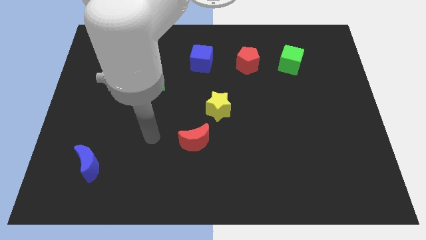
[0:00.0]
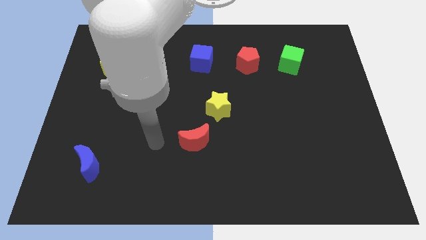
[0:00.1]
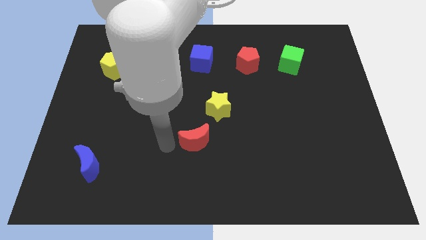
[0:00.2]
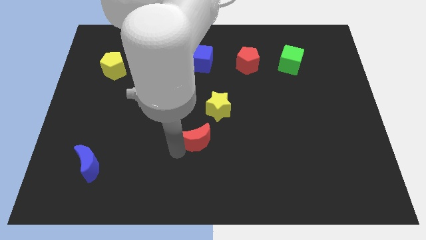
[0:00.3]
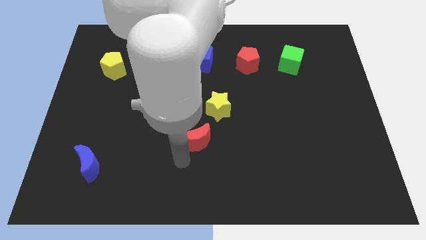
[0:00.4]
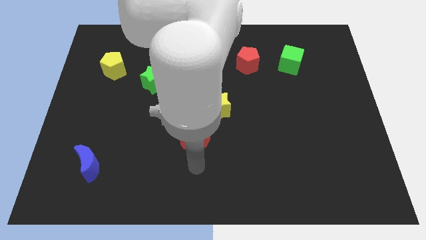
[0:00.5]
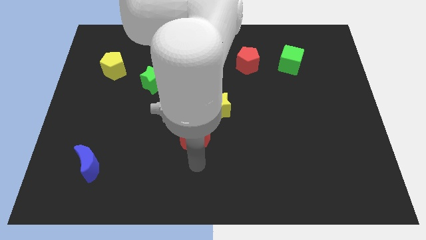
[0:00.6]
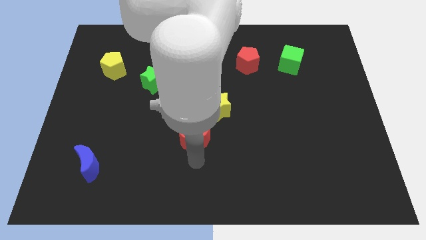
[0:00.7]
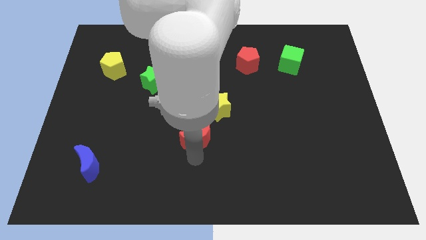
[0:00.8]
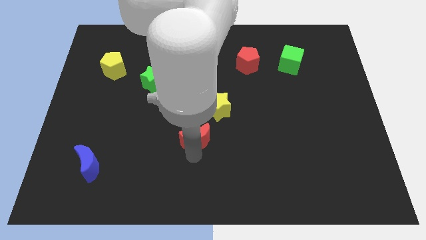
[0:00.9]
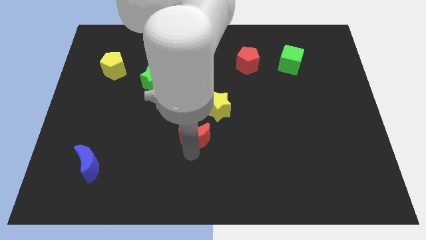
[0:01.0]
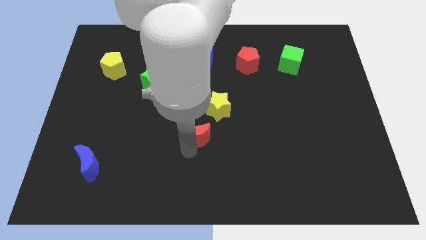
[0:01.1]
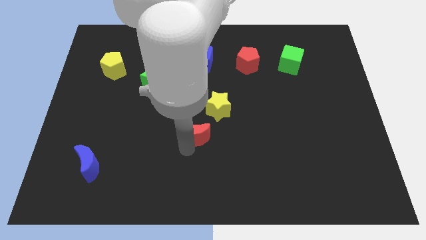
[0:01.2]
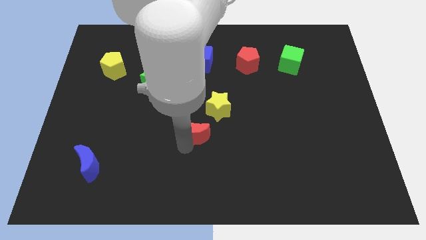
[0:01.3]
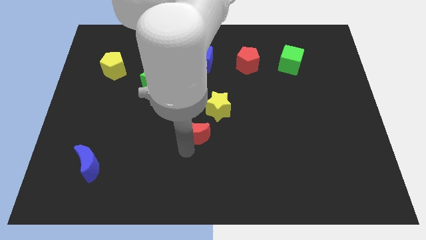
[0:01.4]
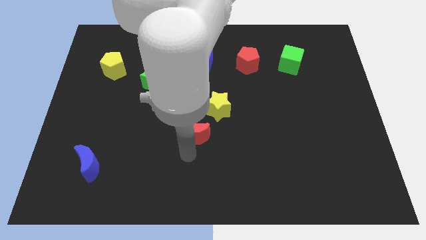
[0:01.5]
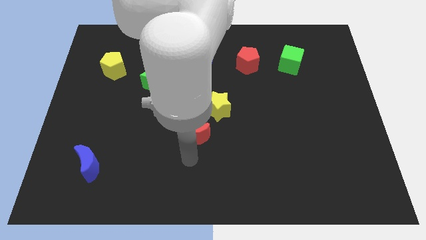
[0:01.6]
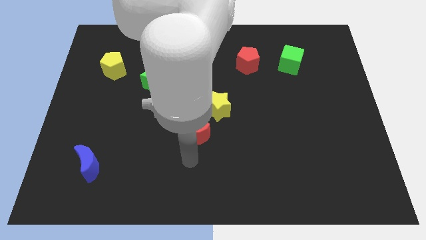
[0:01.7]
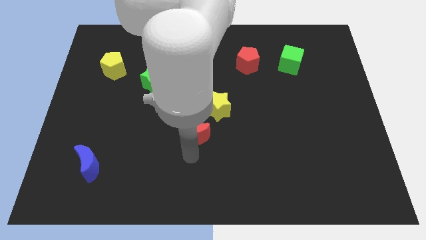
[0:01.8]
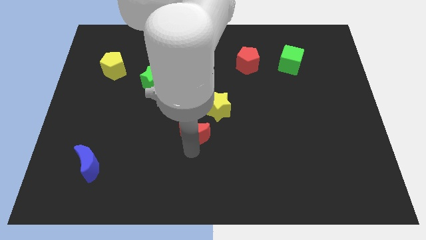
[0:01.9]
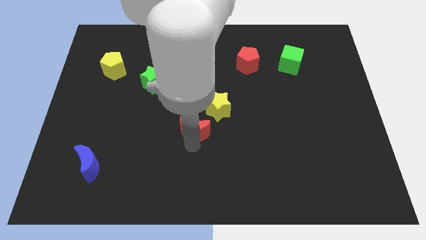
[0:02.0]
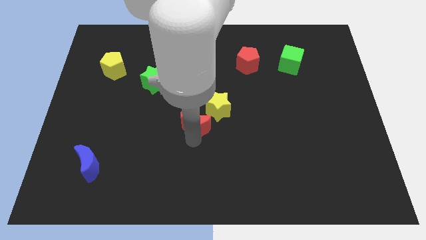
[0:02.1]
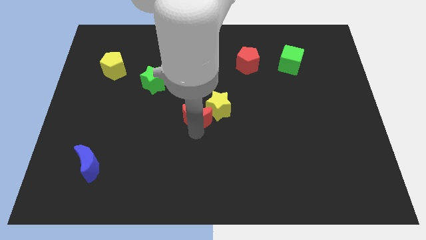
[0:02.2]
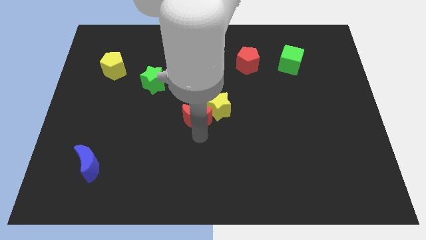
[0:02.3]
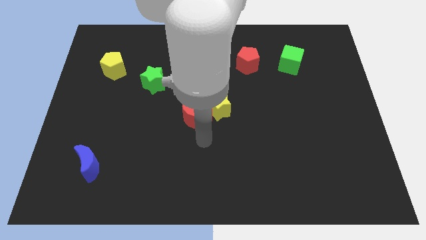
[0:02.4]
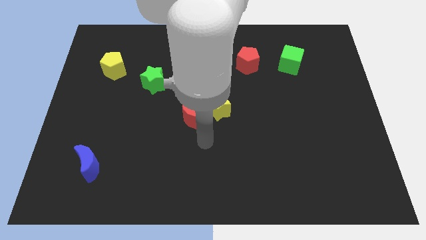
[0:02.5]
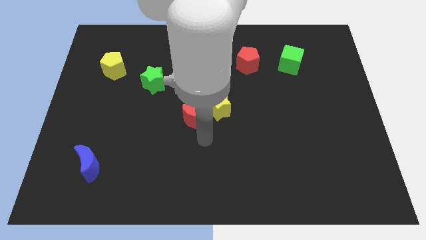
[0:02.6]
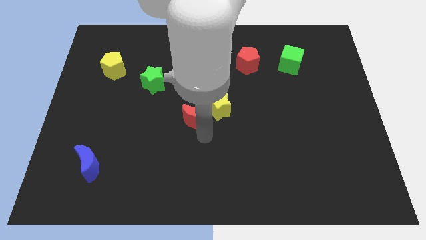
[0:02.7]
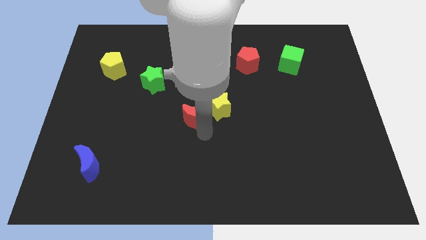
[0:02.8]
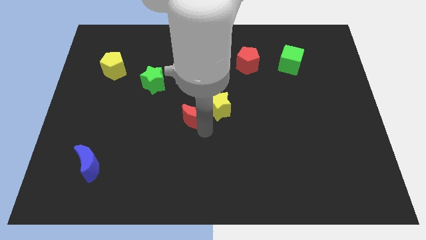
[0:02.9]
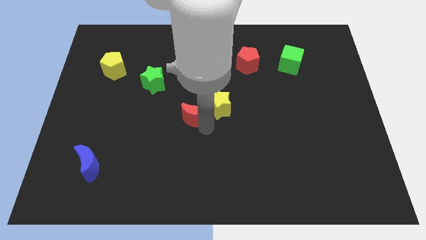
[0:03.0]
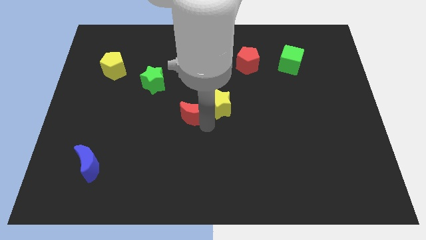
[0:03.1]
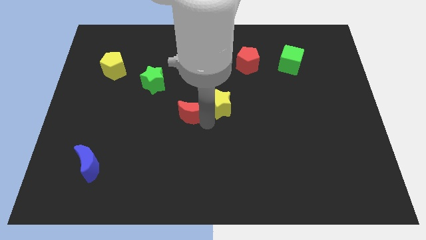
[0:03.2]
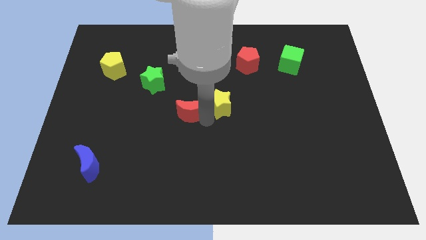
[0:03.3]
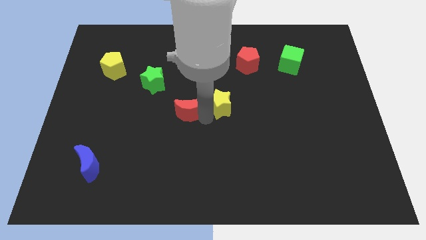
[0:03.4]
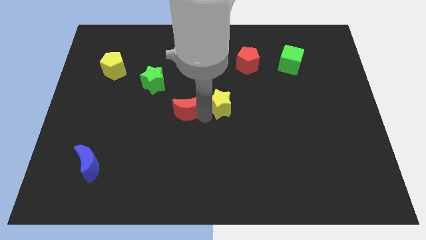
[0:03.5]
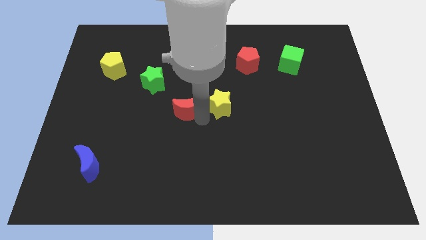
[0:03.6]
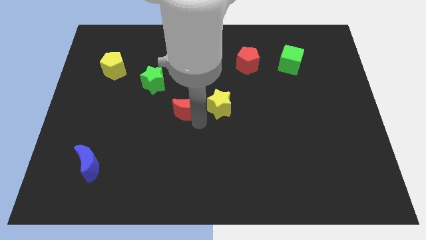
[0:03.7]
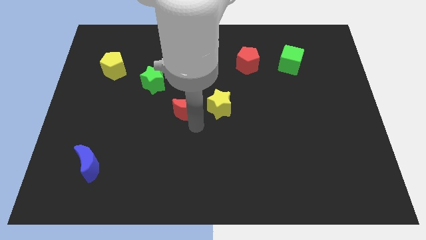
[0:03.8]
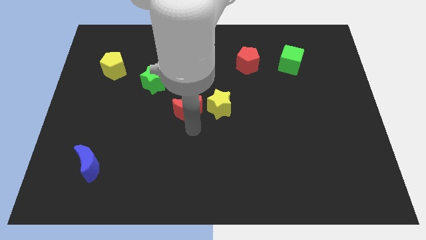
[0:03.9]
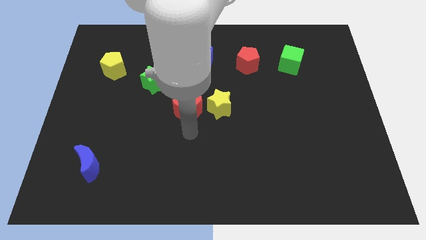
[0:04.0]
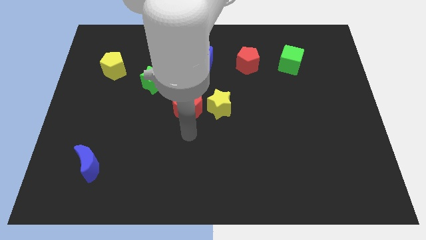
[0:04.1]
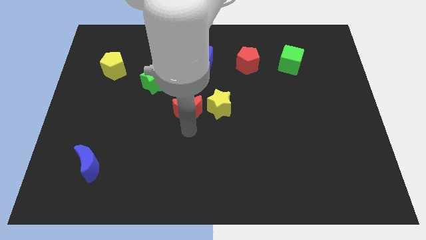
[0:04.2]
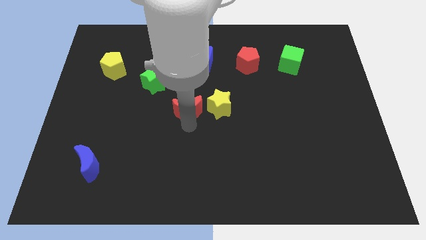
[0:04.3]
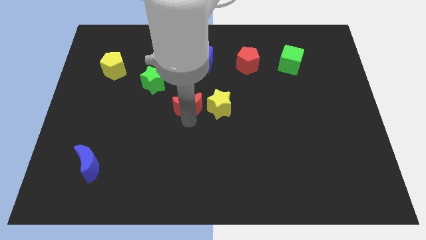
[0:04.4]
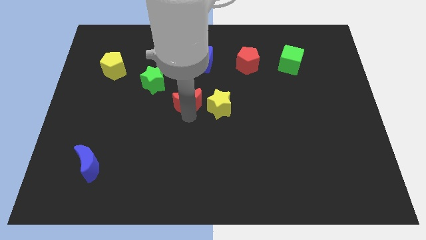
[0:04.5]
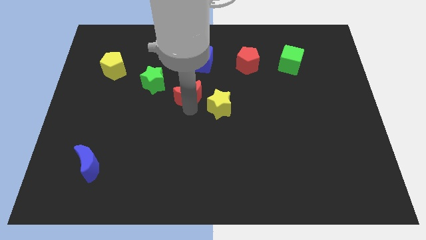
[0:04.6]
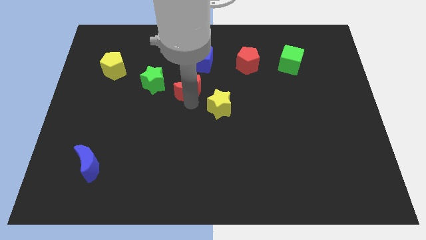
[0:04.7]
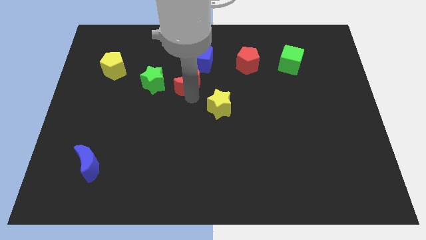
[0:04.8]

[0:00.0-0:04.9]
put the red moon diagonally down and to the left of the blue cube

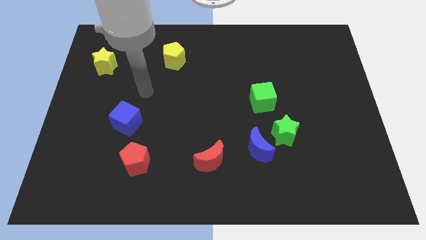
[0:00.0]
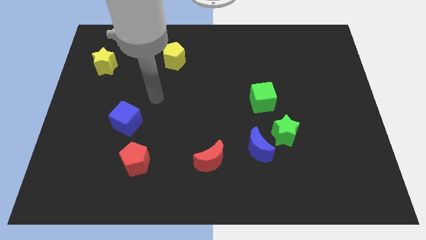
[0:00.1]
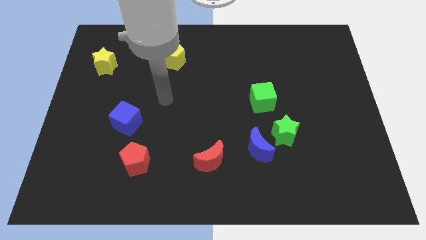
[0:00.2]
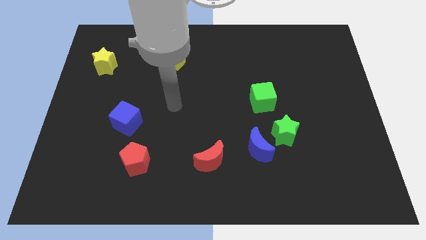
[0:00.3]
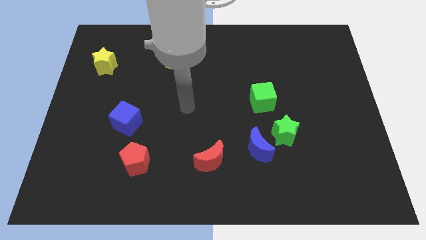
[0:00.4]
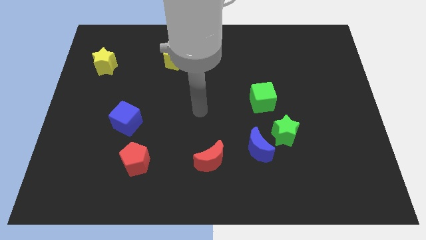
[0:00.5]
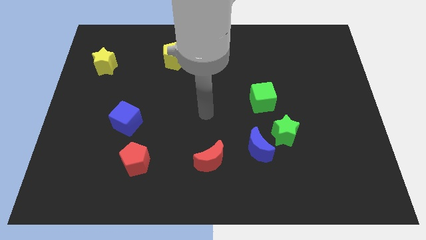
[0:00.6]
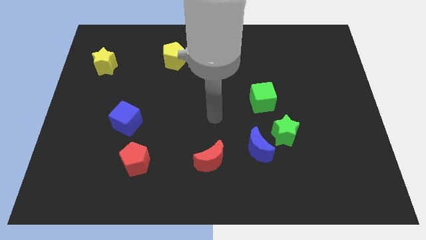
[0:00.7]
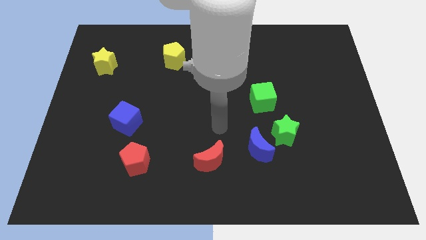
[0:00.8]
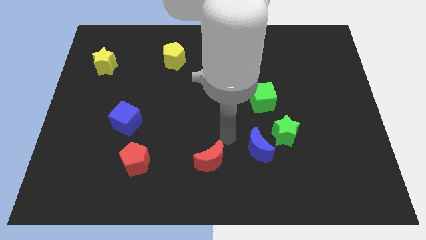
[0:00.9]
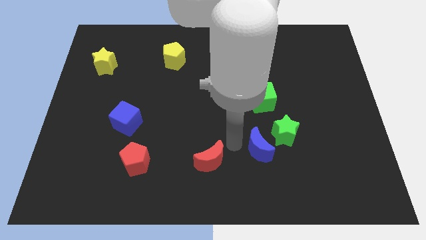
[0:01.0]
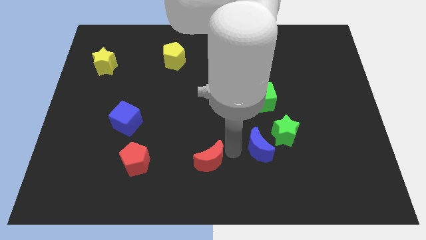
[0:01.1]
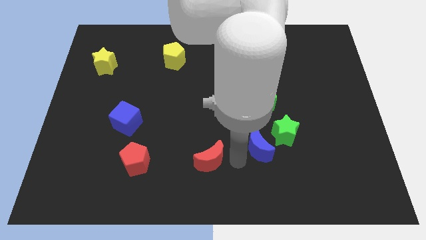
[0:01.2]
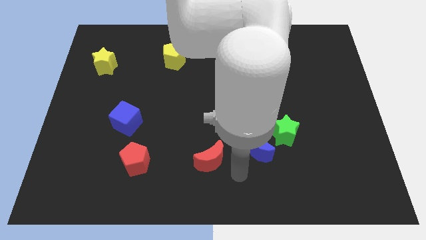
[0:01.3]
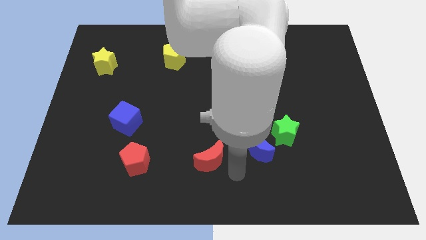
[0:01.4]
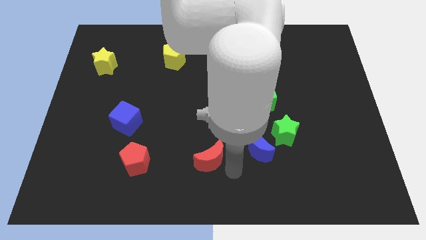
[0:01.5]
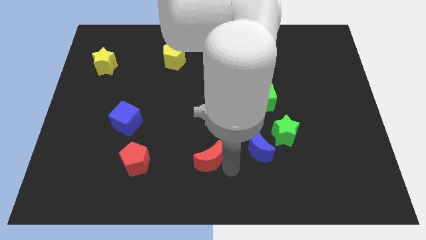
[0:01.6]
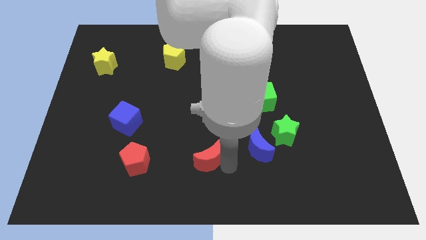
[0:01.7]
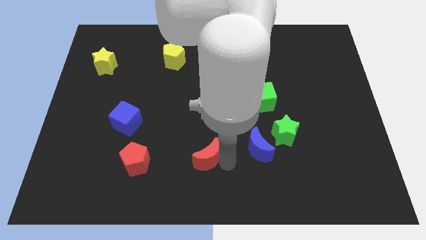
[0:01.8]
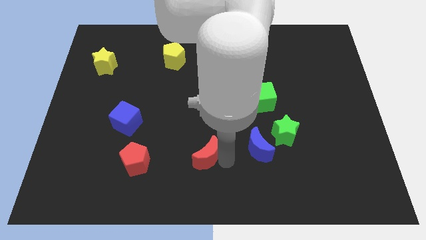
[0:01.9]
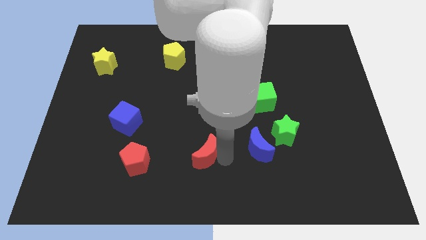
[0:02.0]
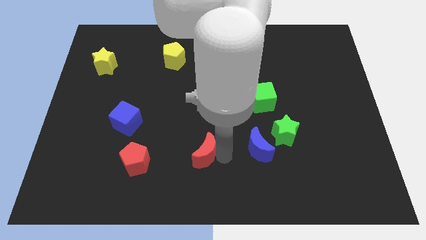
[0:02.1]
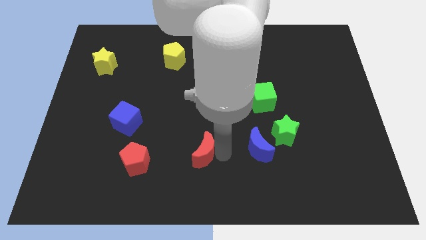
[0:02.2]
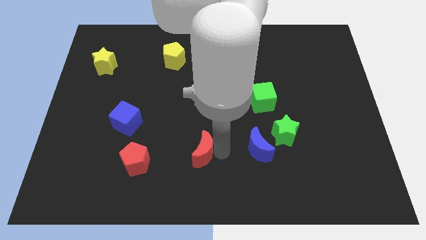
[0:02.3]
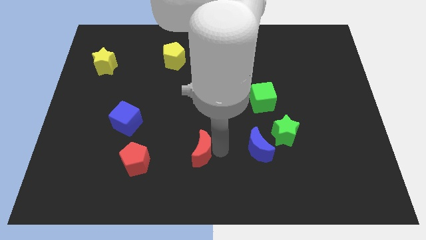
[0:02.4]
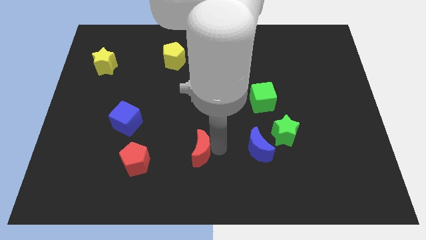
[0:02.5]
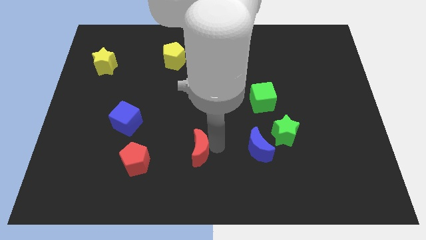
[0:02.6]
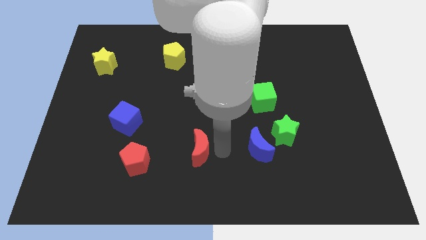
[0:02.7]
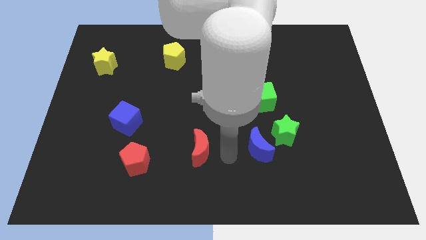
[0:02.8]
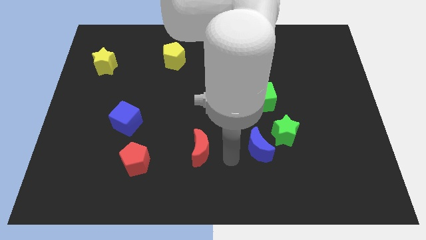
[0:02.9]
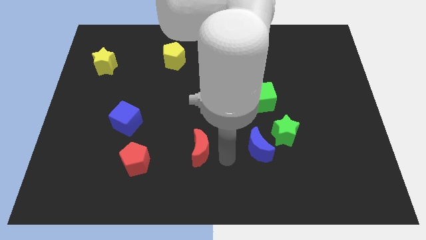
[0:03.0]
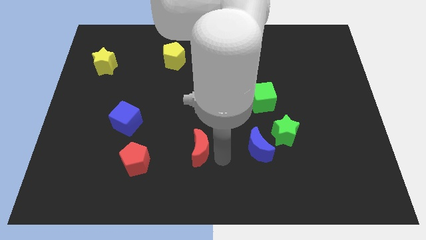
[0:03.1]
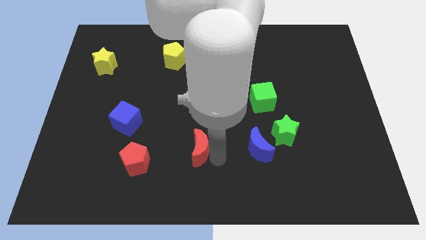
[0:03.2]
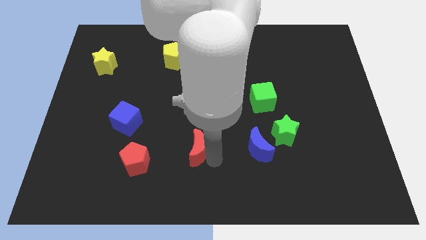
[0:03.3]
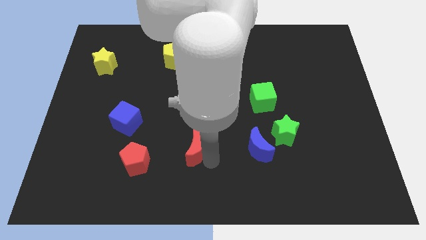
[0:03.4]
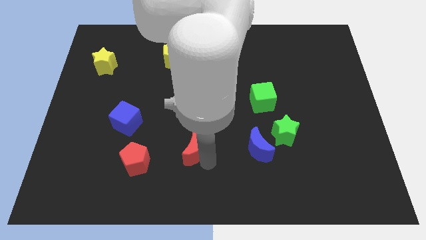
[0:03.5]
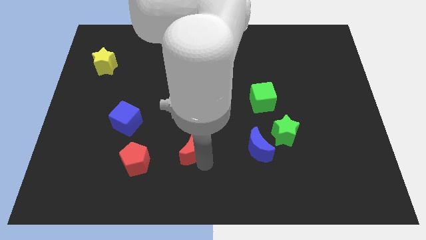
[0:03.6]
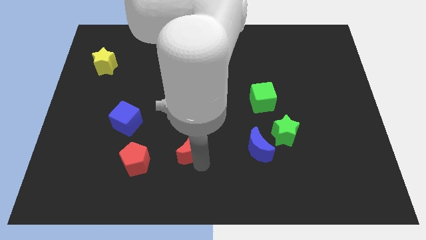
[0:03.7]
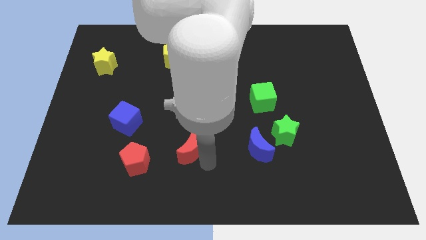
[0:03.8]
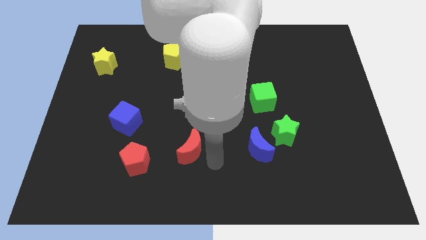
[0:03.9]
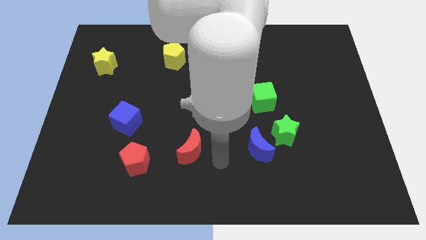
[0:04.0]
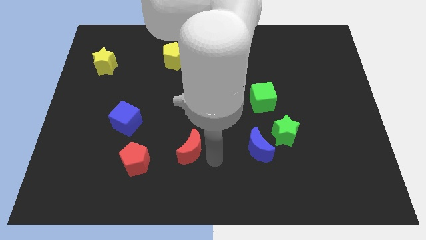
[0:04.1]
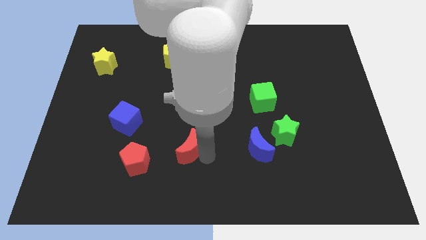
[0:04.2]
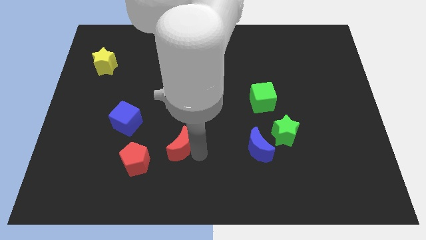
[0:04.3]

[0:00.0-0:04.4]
put the red moon to the top right side of the red pentagon
